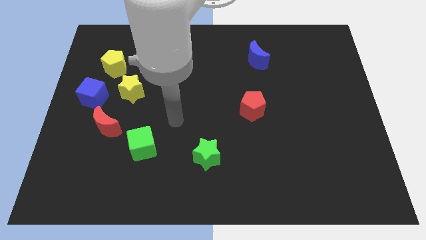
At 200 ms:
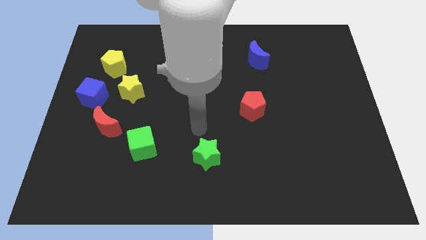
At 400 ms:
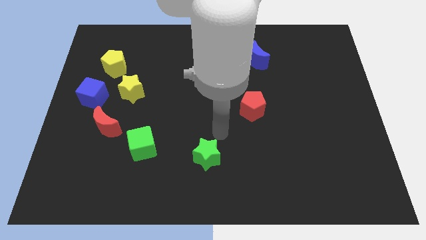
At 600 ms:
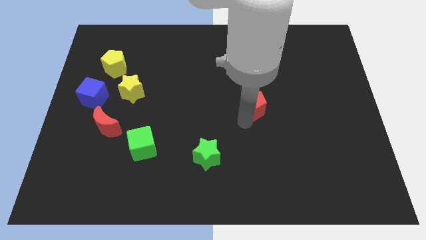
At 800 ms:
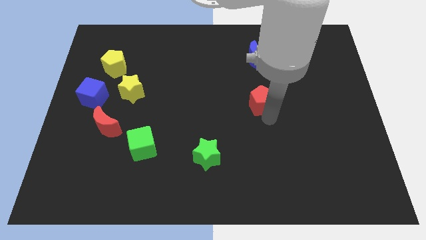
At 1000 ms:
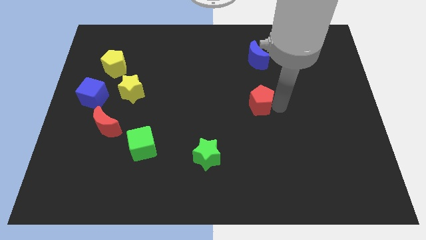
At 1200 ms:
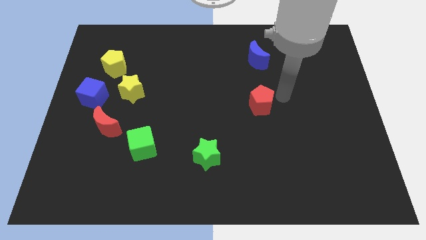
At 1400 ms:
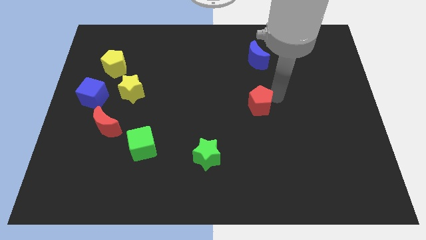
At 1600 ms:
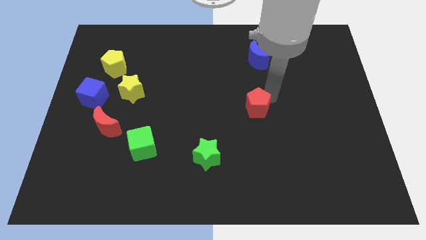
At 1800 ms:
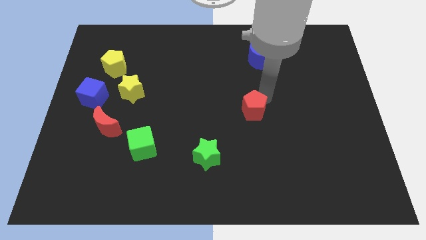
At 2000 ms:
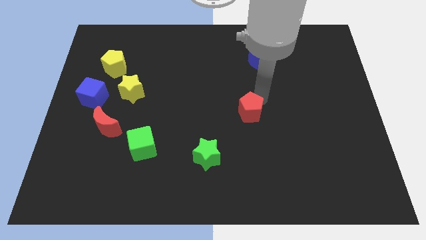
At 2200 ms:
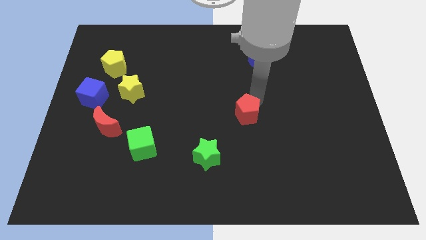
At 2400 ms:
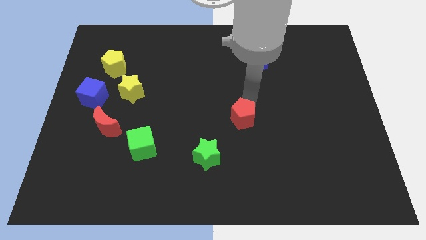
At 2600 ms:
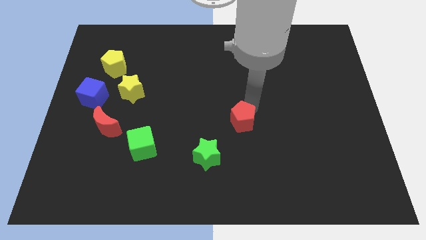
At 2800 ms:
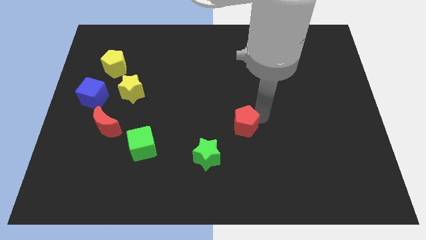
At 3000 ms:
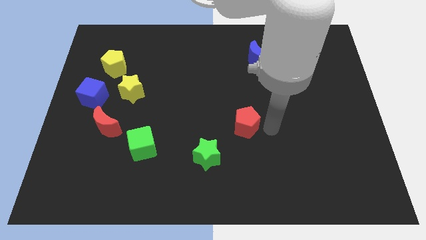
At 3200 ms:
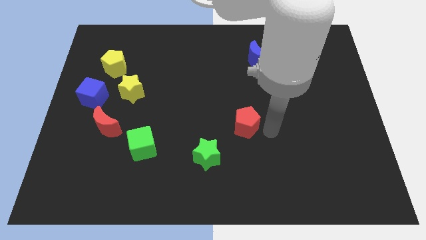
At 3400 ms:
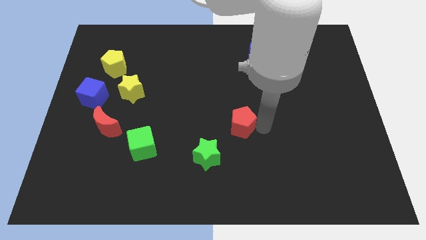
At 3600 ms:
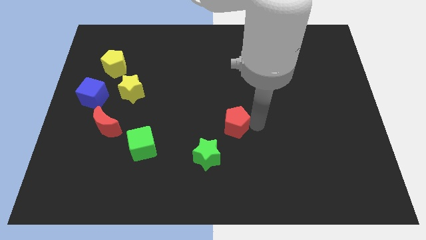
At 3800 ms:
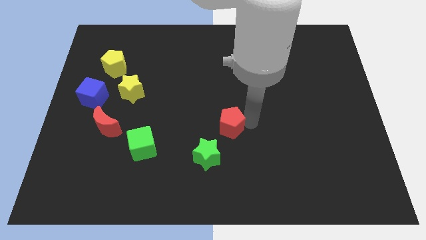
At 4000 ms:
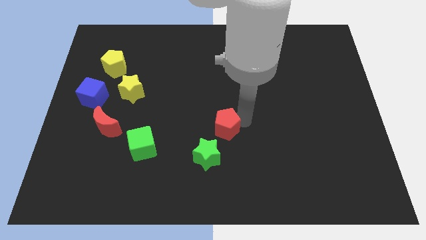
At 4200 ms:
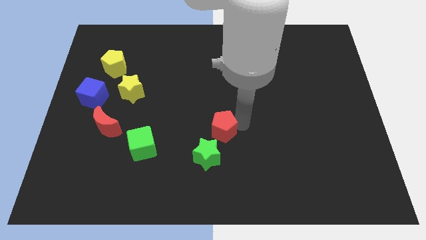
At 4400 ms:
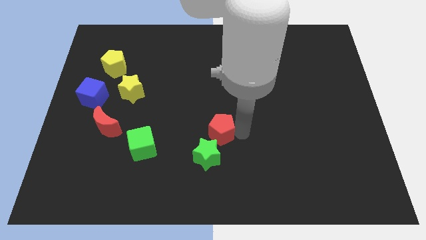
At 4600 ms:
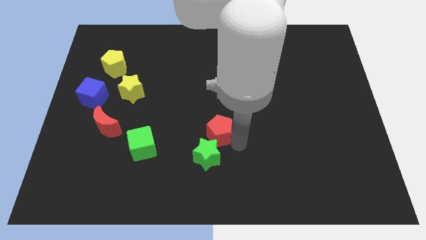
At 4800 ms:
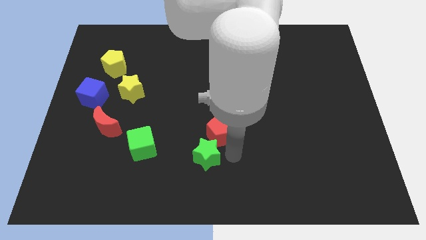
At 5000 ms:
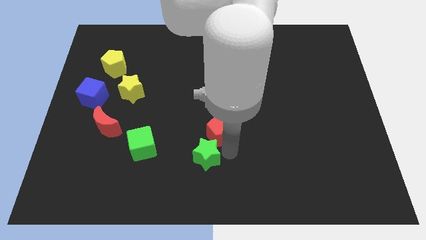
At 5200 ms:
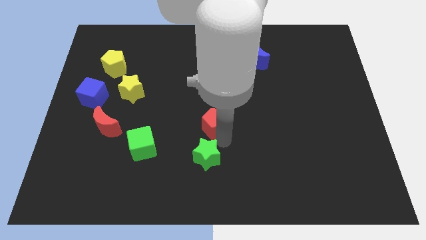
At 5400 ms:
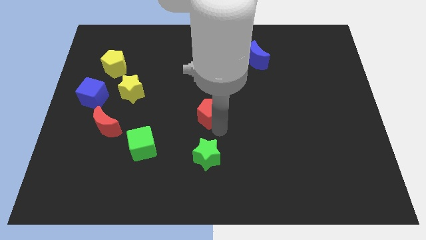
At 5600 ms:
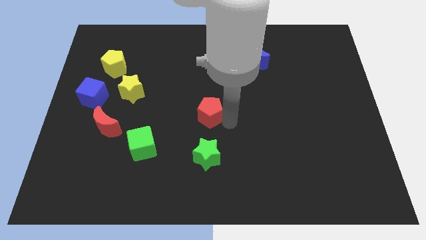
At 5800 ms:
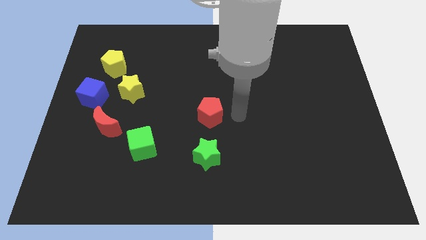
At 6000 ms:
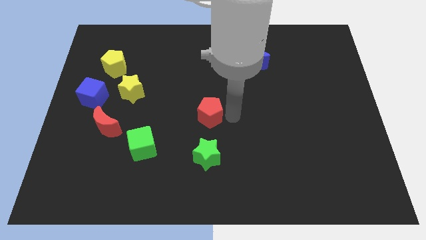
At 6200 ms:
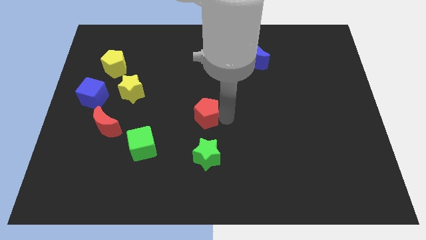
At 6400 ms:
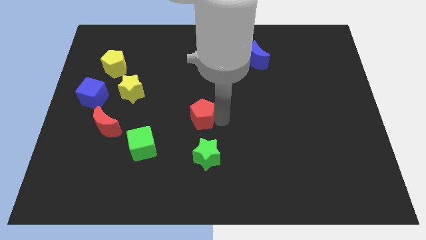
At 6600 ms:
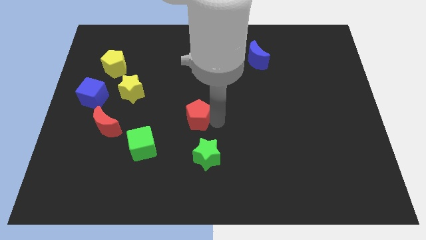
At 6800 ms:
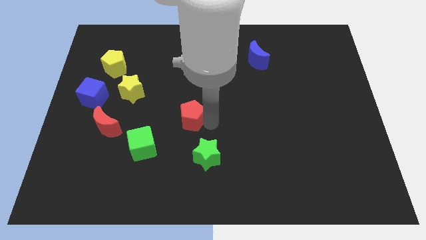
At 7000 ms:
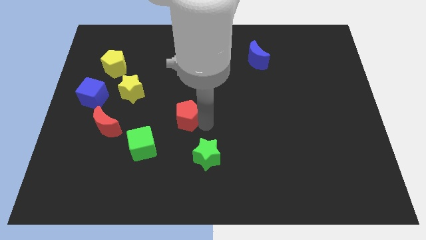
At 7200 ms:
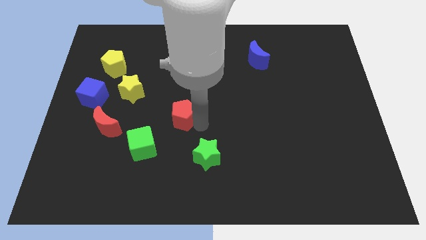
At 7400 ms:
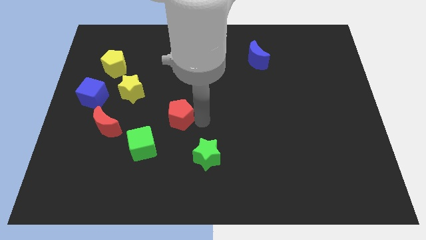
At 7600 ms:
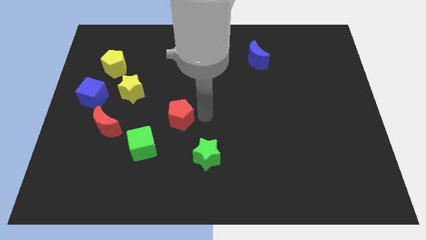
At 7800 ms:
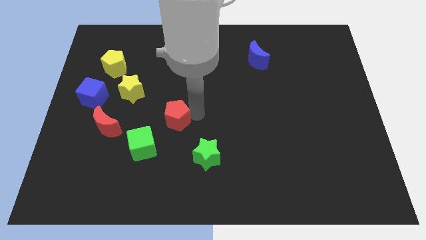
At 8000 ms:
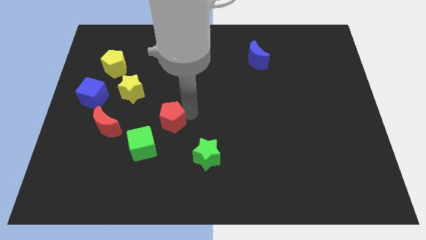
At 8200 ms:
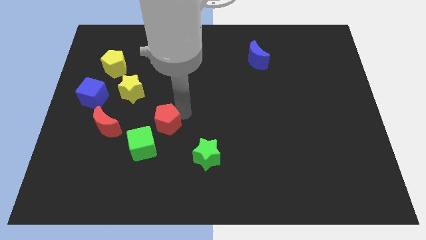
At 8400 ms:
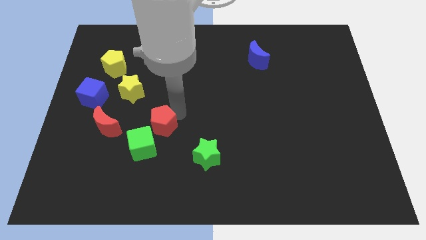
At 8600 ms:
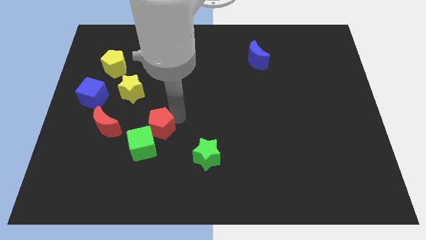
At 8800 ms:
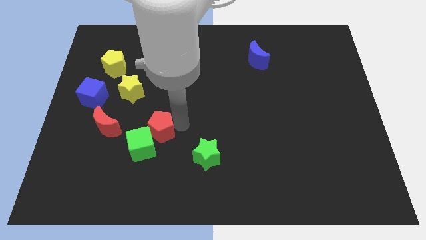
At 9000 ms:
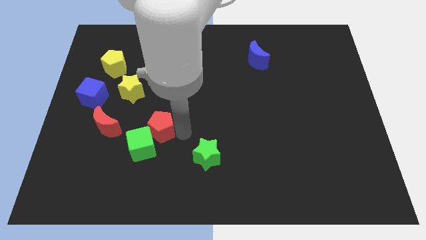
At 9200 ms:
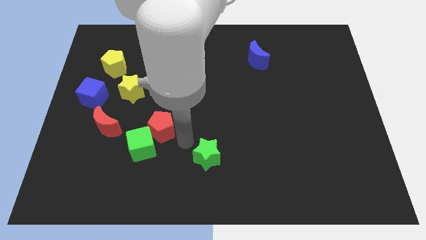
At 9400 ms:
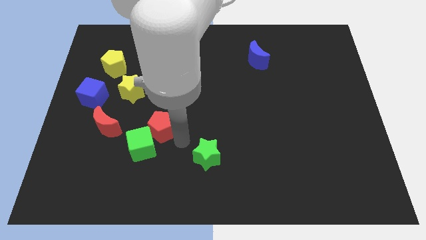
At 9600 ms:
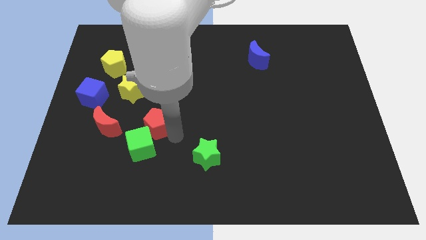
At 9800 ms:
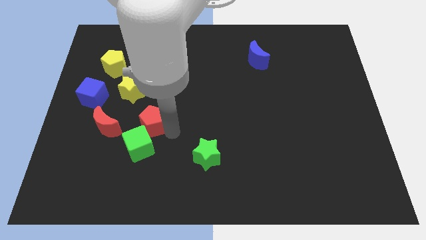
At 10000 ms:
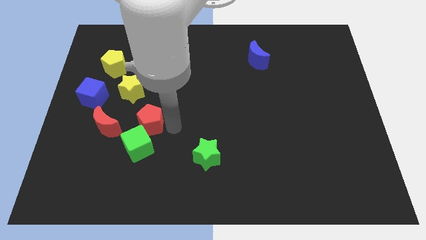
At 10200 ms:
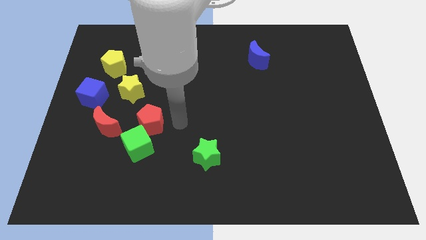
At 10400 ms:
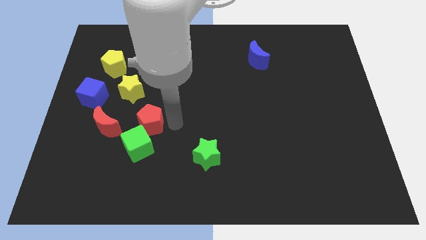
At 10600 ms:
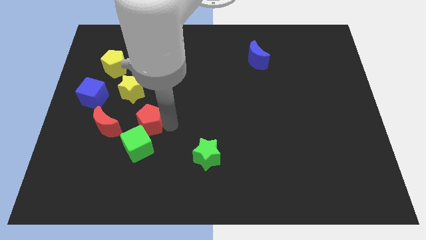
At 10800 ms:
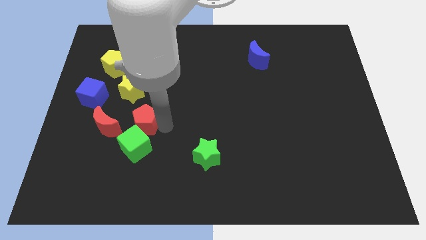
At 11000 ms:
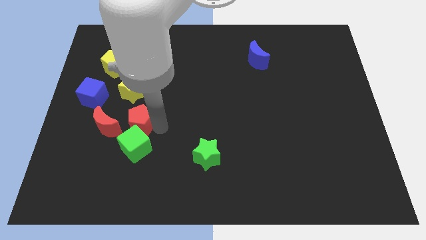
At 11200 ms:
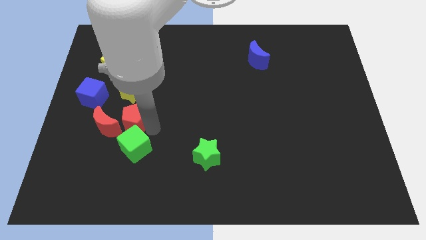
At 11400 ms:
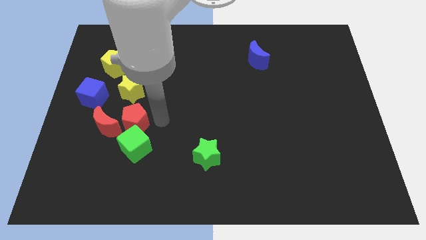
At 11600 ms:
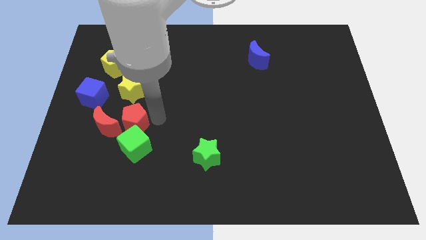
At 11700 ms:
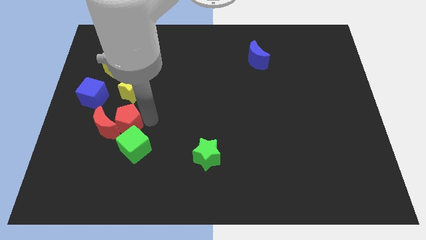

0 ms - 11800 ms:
move the red pentagon next to the red moon
